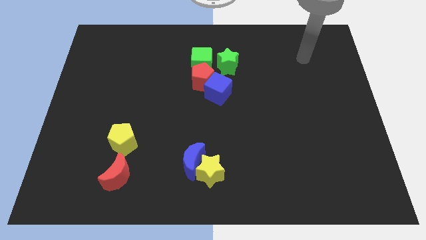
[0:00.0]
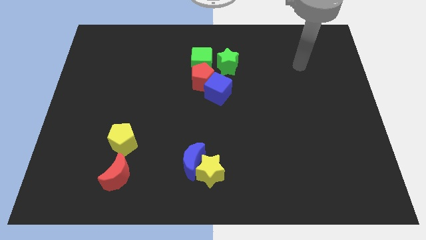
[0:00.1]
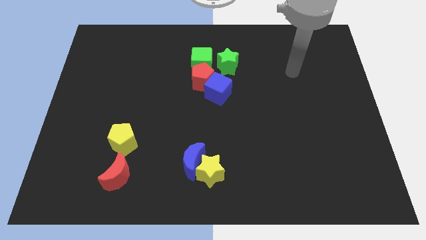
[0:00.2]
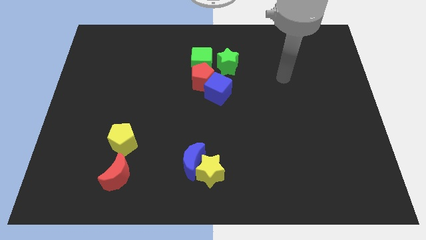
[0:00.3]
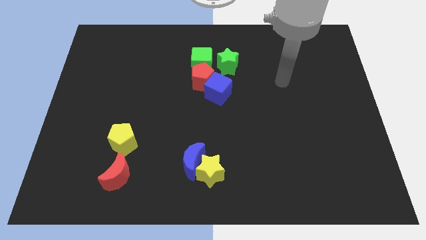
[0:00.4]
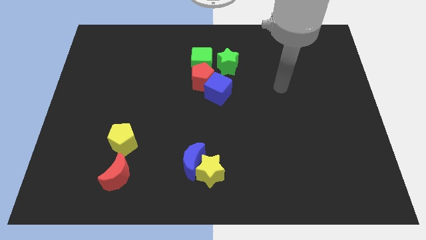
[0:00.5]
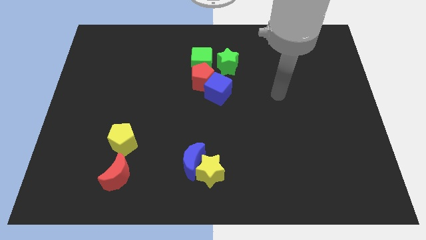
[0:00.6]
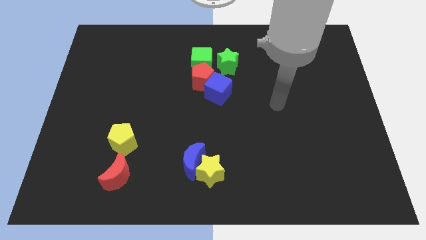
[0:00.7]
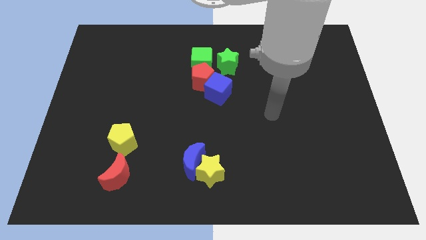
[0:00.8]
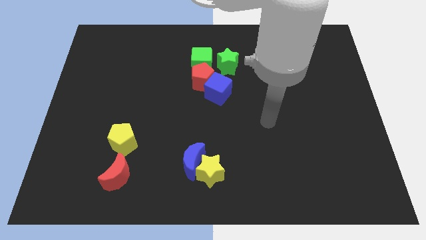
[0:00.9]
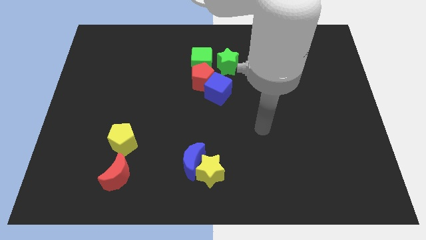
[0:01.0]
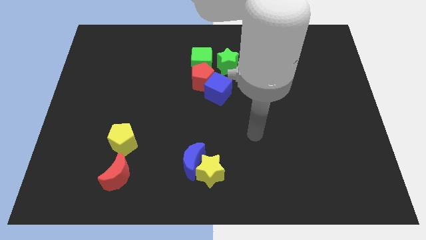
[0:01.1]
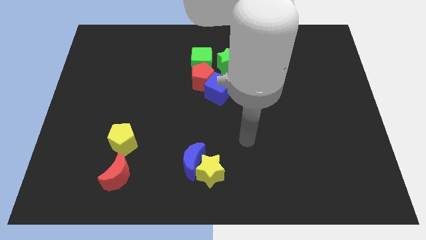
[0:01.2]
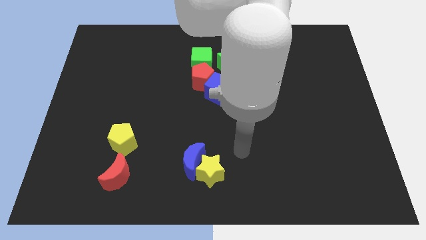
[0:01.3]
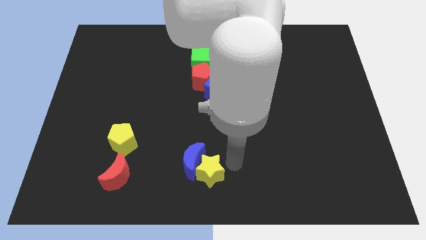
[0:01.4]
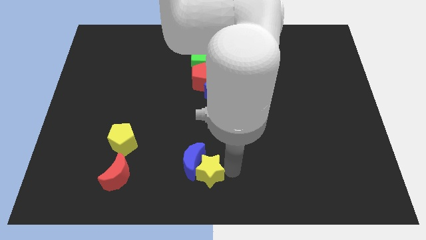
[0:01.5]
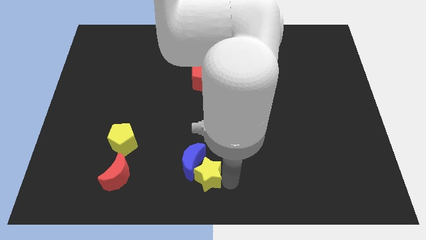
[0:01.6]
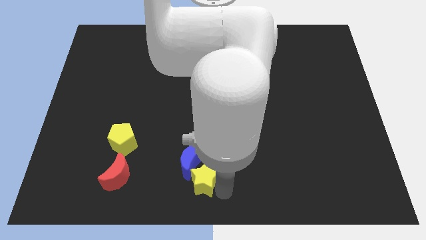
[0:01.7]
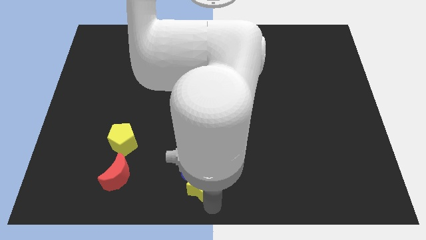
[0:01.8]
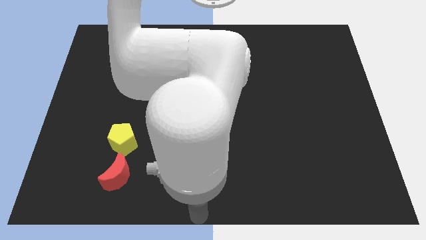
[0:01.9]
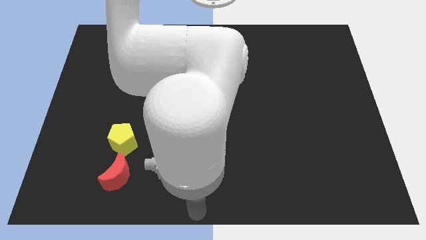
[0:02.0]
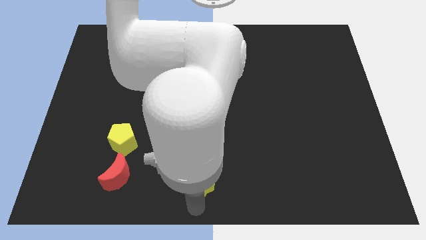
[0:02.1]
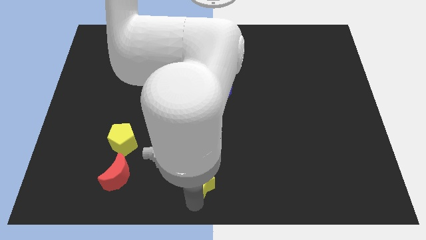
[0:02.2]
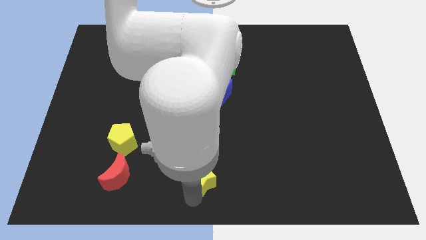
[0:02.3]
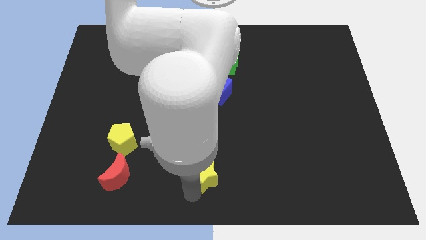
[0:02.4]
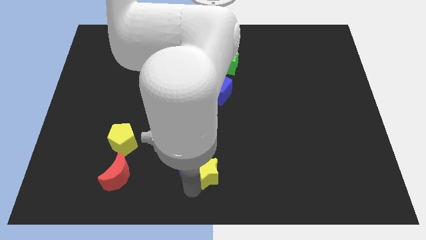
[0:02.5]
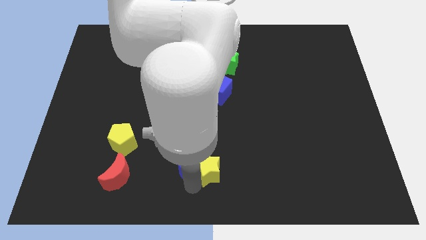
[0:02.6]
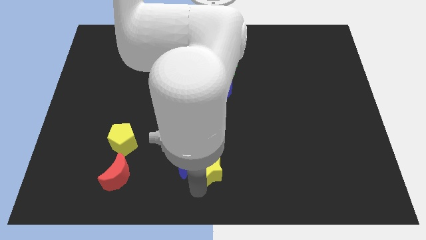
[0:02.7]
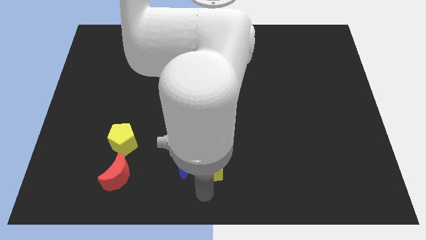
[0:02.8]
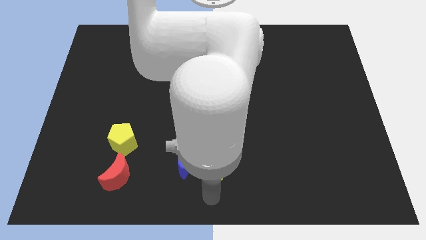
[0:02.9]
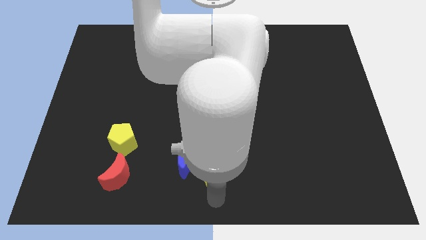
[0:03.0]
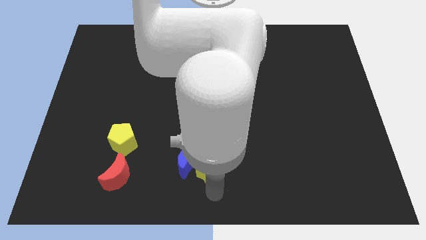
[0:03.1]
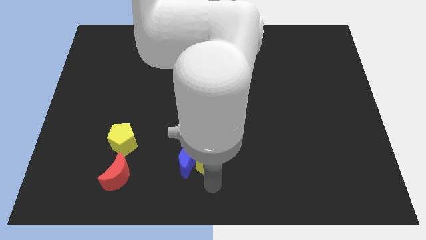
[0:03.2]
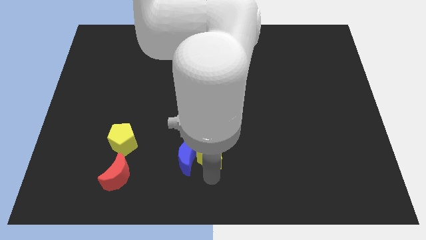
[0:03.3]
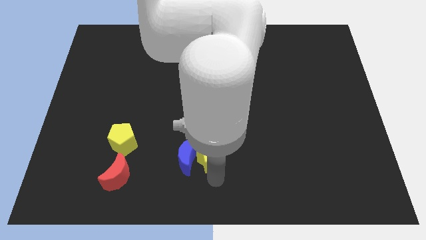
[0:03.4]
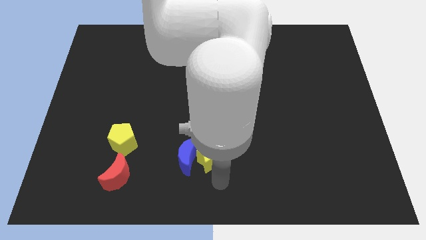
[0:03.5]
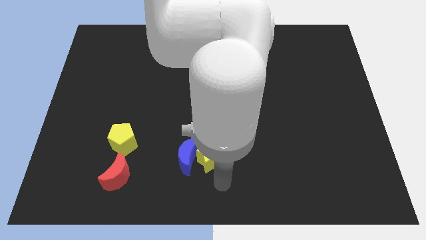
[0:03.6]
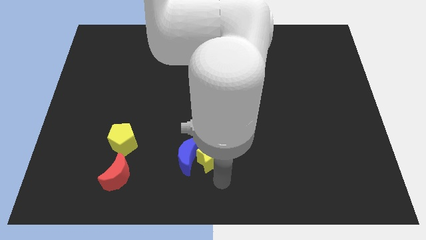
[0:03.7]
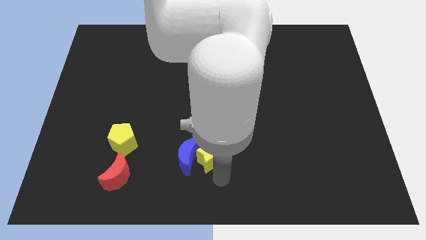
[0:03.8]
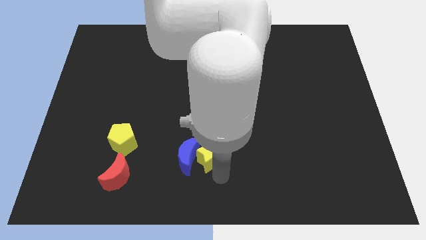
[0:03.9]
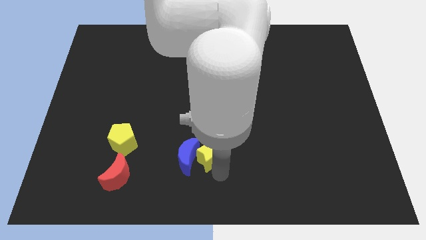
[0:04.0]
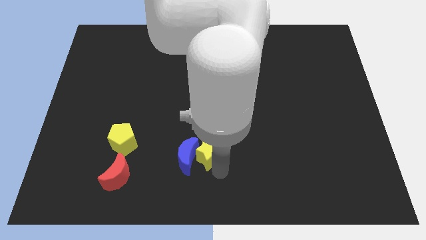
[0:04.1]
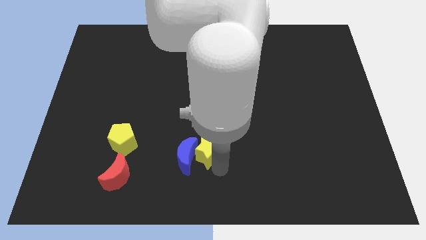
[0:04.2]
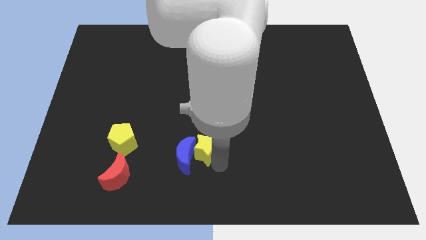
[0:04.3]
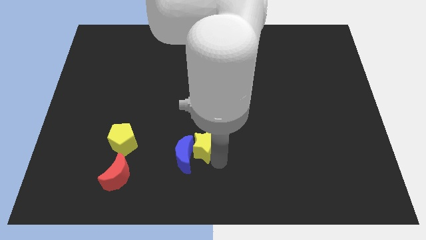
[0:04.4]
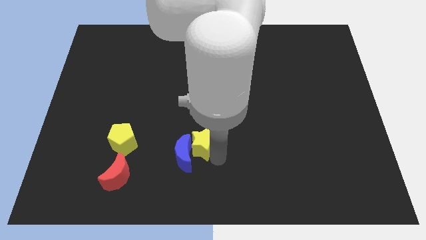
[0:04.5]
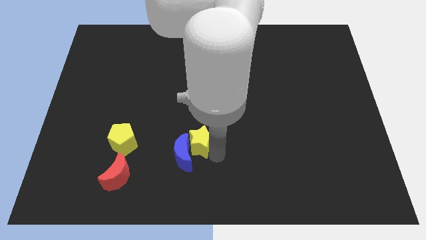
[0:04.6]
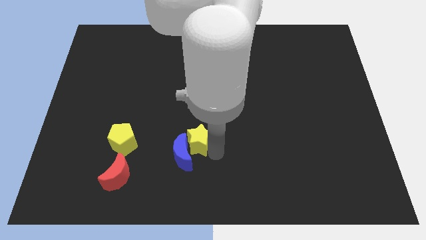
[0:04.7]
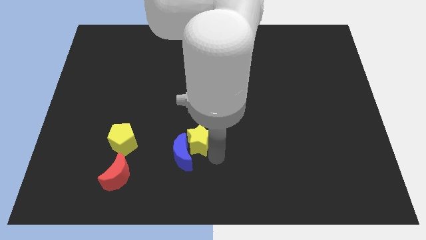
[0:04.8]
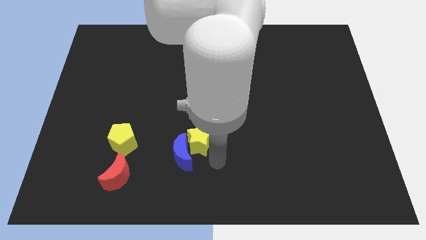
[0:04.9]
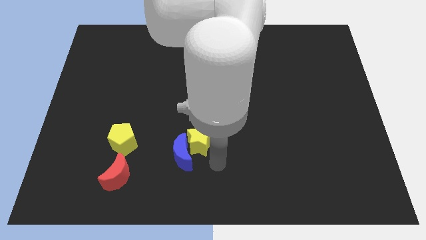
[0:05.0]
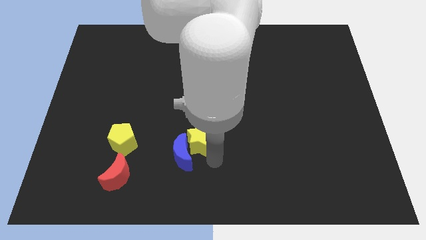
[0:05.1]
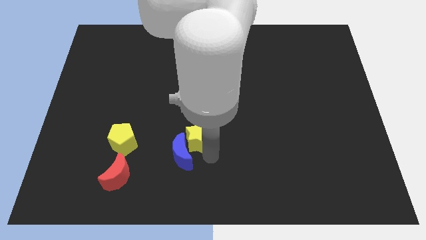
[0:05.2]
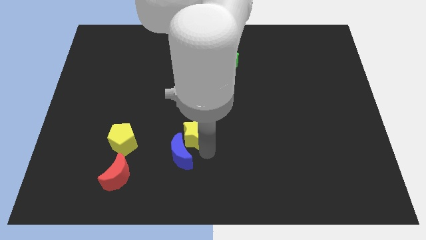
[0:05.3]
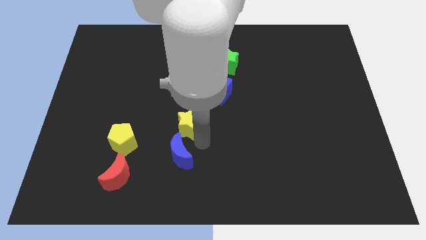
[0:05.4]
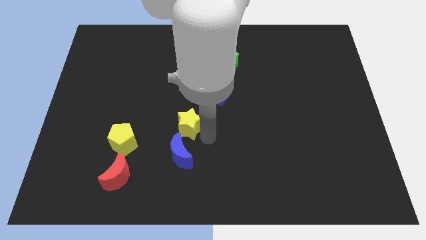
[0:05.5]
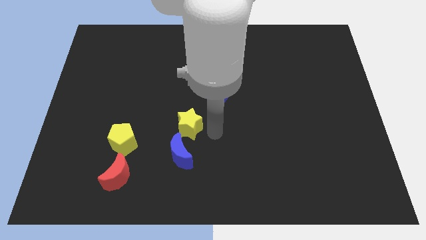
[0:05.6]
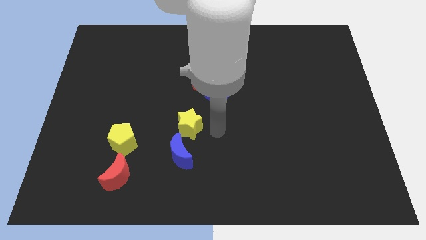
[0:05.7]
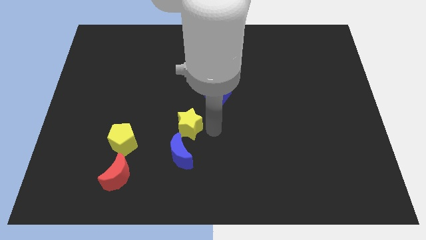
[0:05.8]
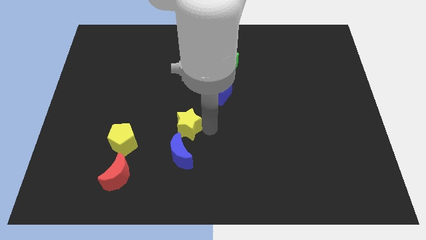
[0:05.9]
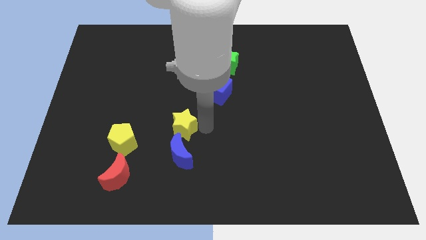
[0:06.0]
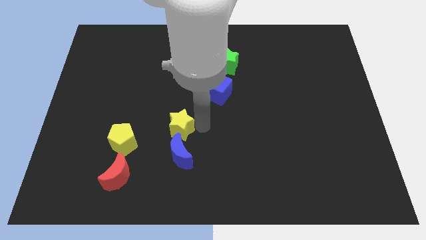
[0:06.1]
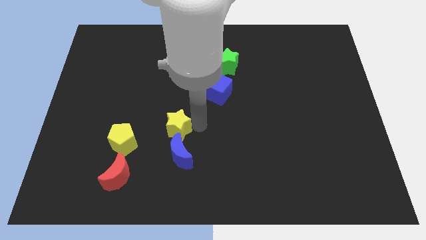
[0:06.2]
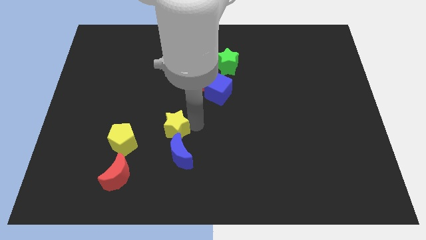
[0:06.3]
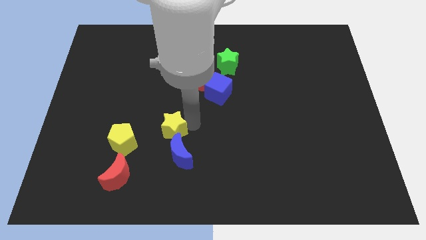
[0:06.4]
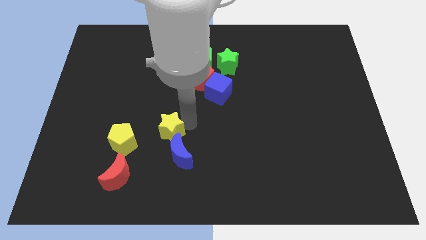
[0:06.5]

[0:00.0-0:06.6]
slide the yellow star to the top right side of the yellow pentagon
